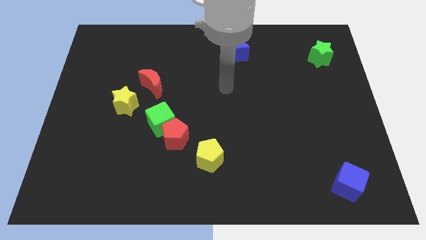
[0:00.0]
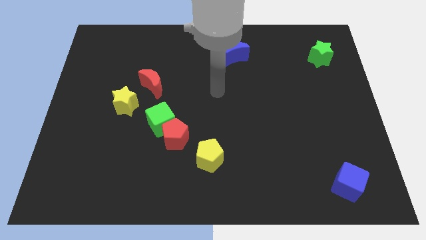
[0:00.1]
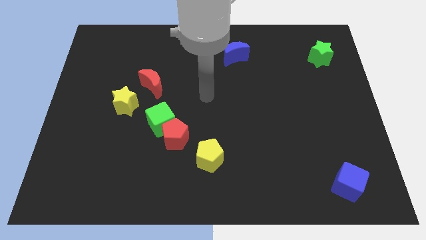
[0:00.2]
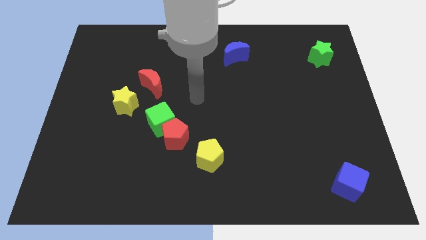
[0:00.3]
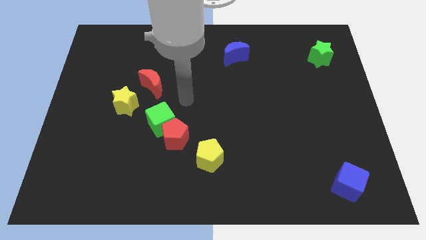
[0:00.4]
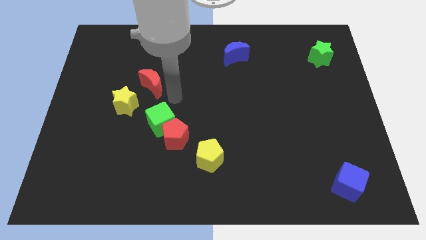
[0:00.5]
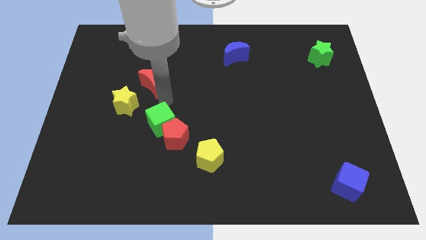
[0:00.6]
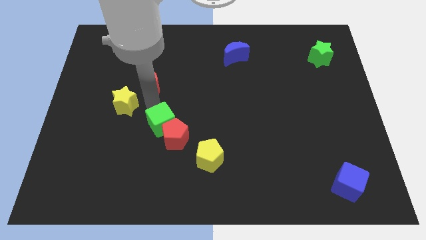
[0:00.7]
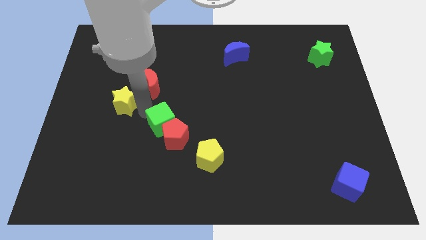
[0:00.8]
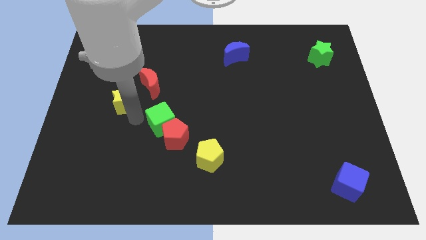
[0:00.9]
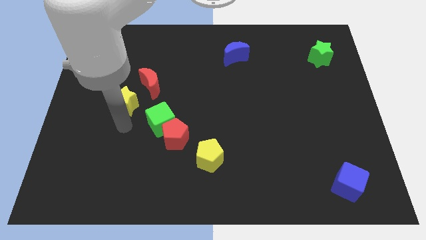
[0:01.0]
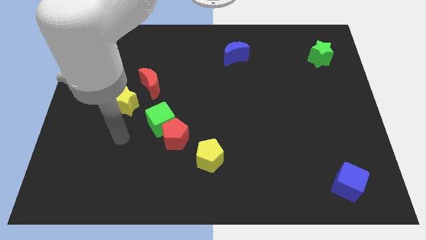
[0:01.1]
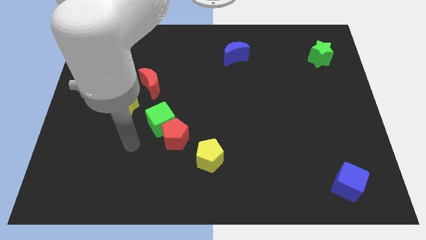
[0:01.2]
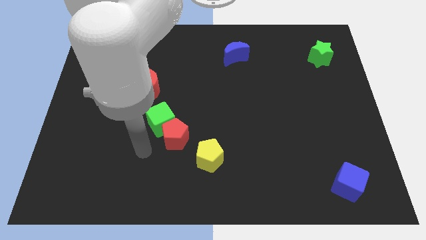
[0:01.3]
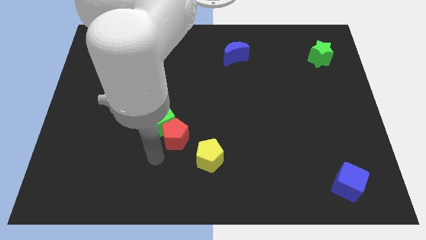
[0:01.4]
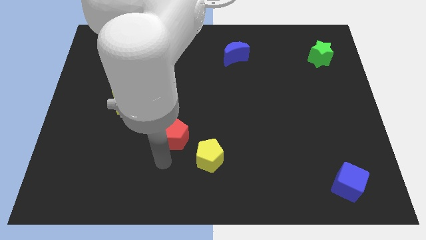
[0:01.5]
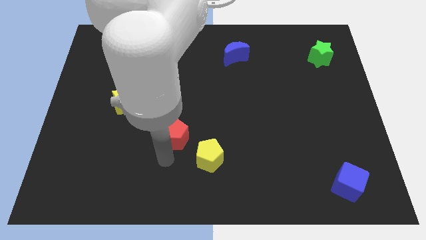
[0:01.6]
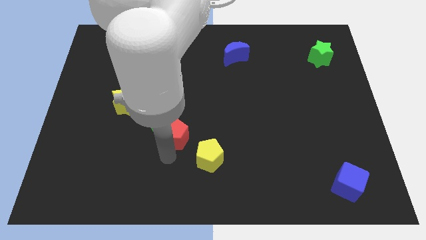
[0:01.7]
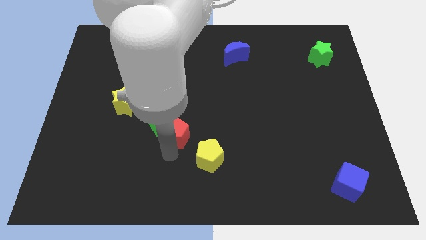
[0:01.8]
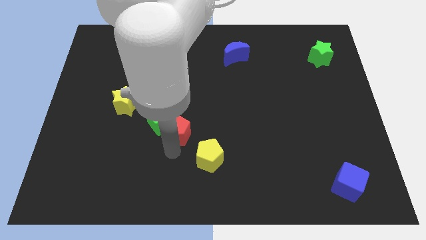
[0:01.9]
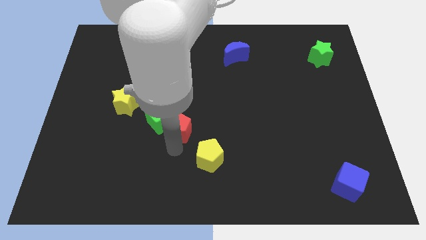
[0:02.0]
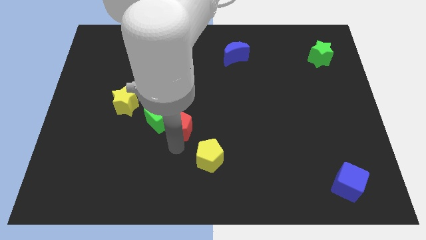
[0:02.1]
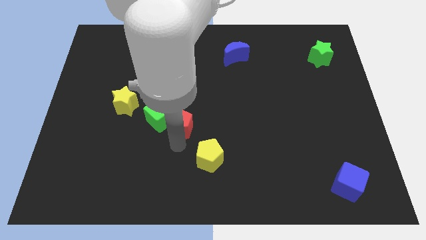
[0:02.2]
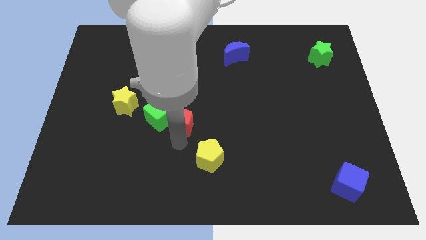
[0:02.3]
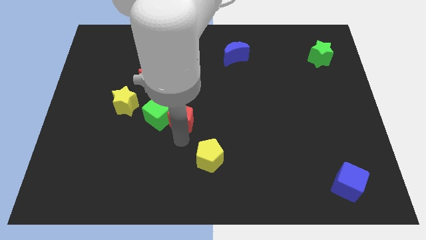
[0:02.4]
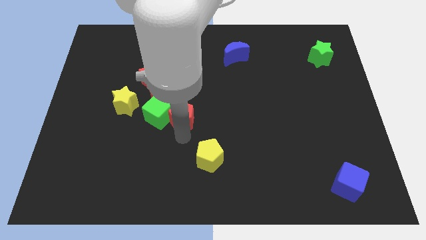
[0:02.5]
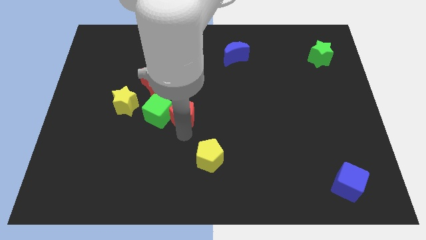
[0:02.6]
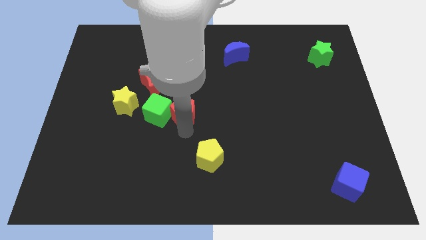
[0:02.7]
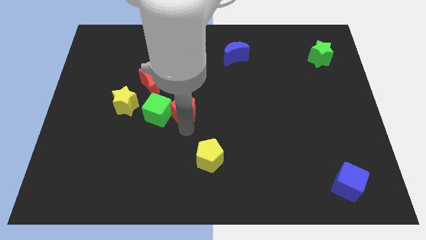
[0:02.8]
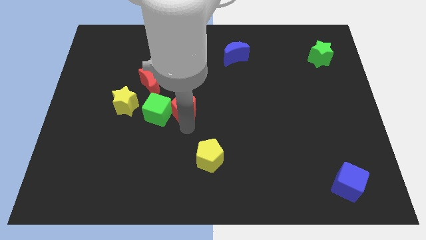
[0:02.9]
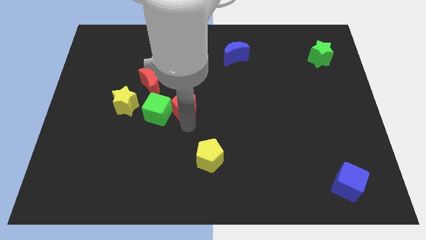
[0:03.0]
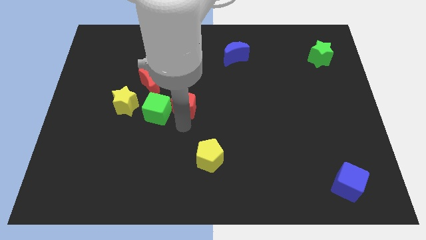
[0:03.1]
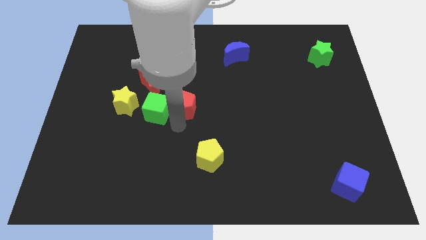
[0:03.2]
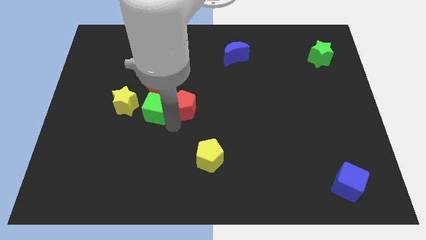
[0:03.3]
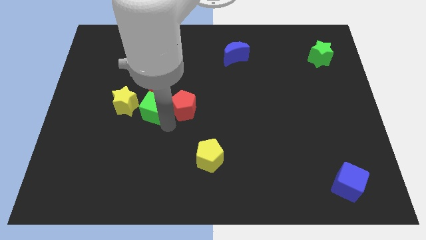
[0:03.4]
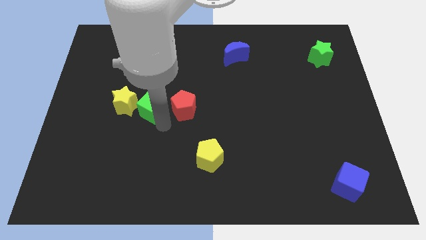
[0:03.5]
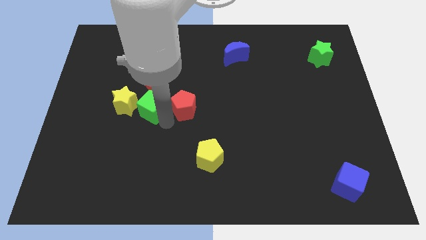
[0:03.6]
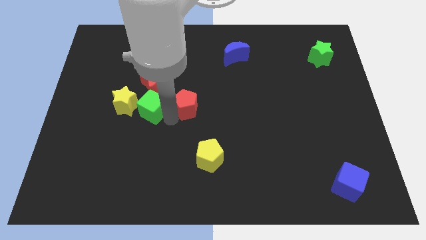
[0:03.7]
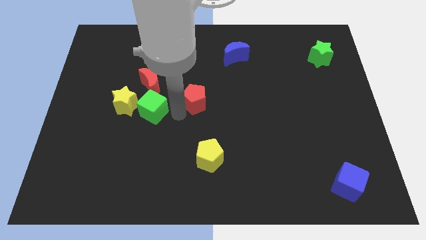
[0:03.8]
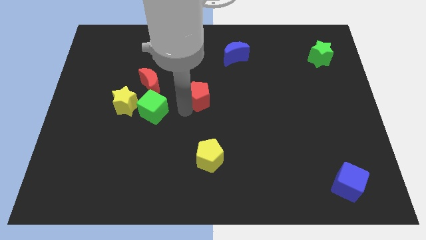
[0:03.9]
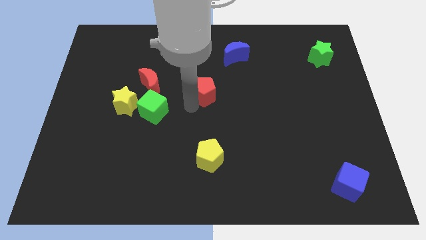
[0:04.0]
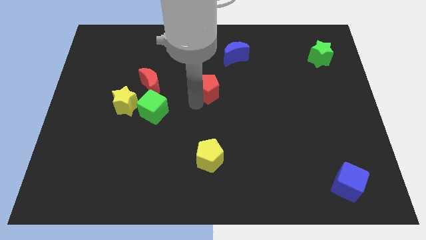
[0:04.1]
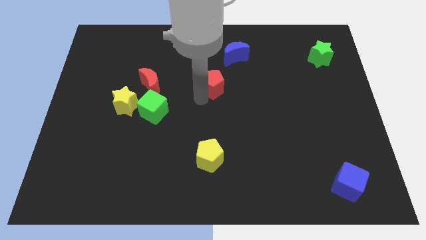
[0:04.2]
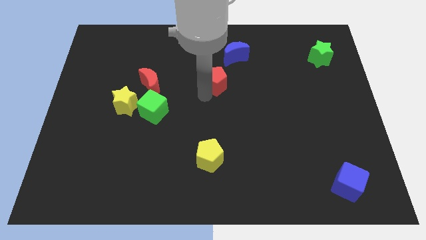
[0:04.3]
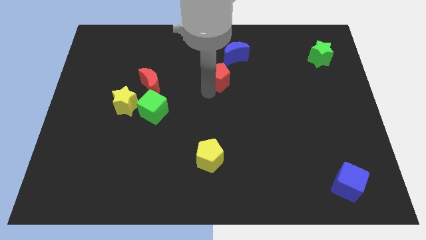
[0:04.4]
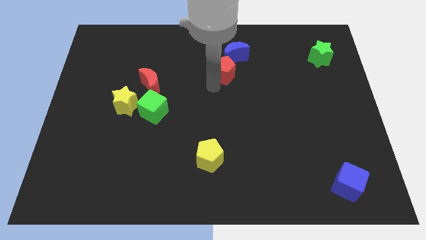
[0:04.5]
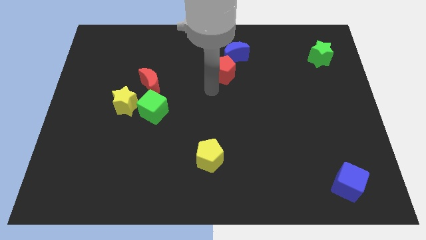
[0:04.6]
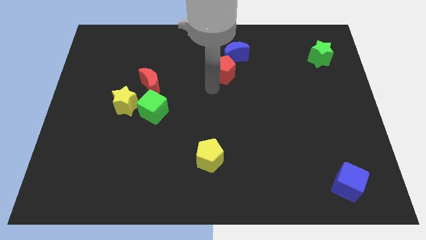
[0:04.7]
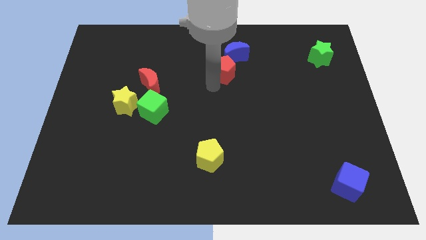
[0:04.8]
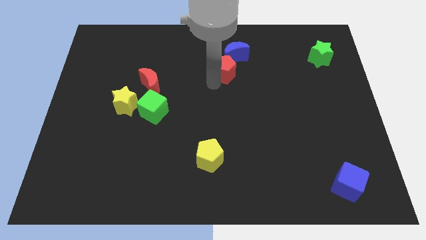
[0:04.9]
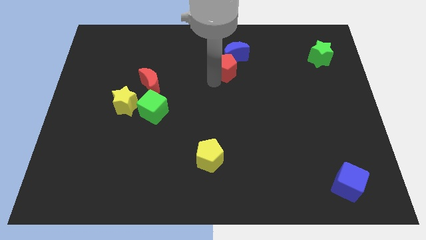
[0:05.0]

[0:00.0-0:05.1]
put the red pentagon close to the blue moon

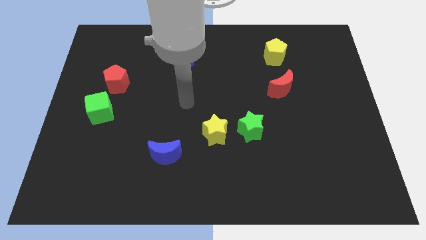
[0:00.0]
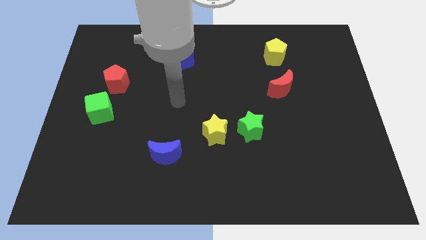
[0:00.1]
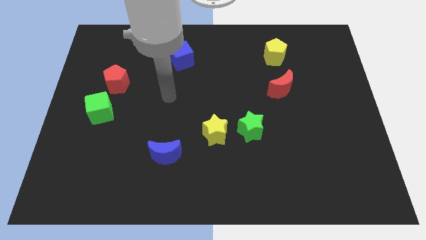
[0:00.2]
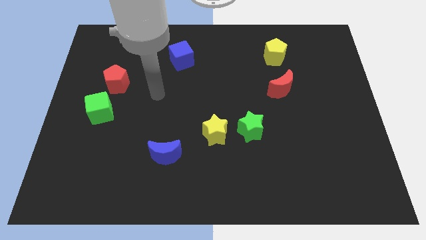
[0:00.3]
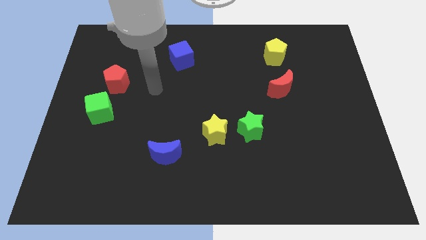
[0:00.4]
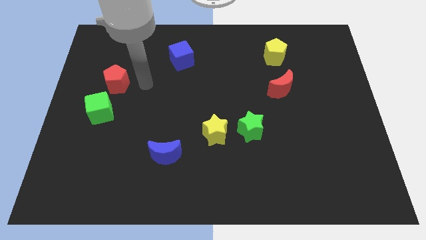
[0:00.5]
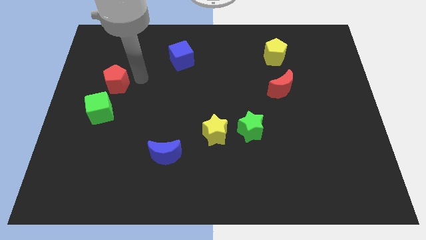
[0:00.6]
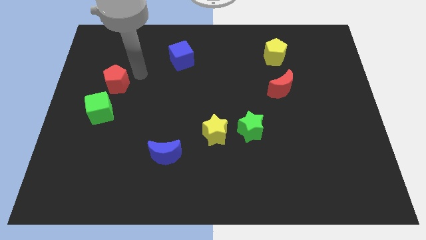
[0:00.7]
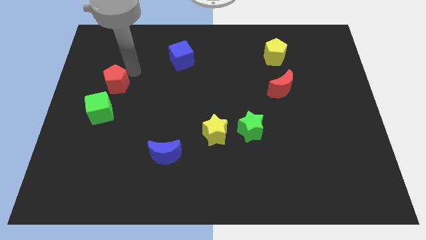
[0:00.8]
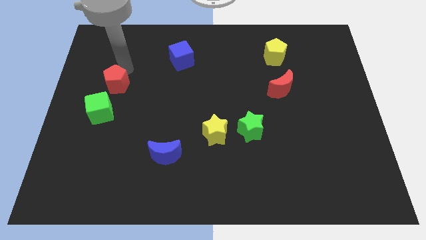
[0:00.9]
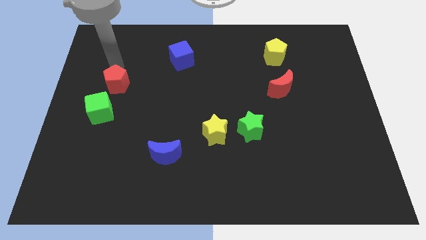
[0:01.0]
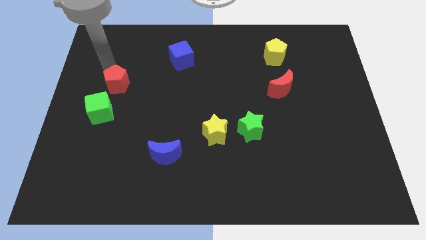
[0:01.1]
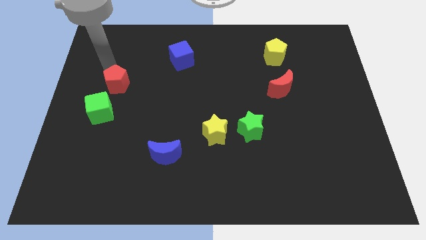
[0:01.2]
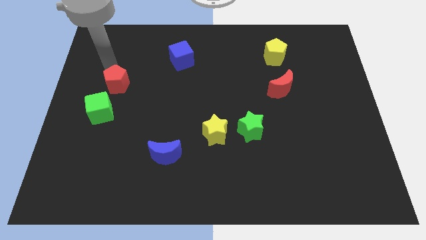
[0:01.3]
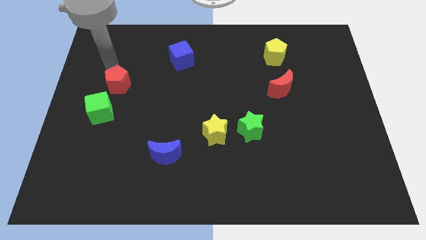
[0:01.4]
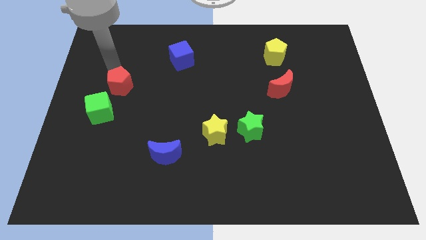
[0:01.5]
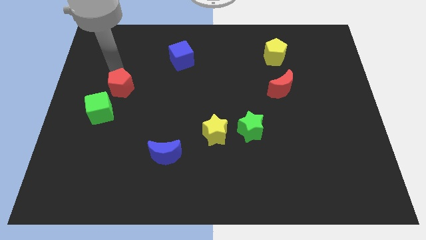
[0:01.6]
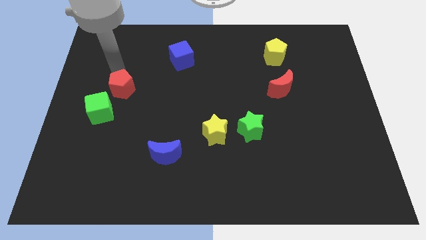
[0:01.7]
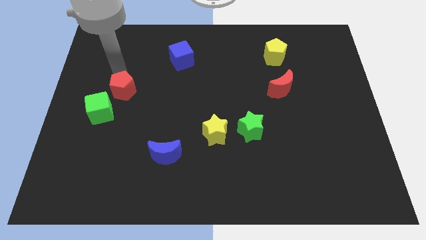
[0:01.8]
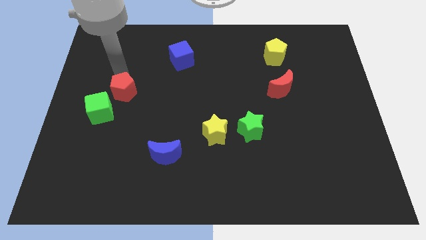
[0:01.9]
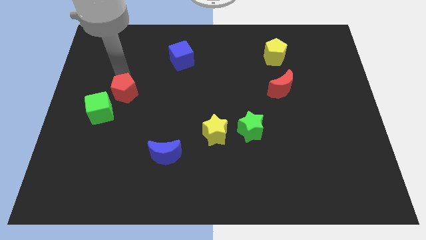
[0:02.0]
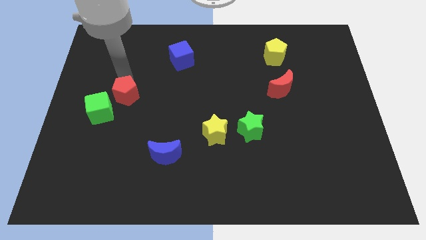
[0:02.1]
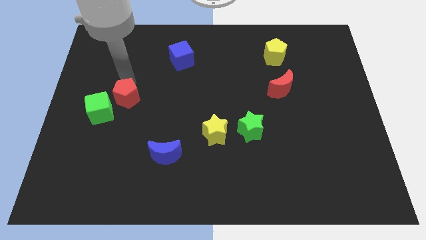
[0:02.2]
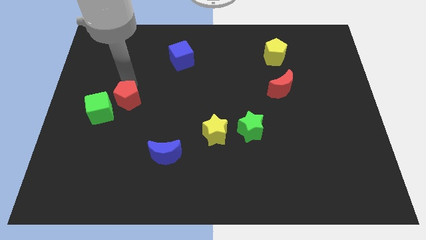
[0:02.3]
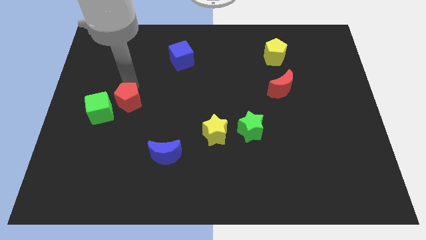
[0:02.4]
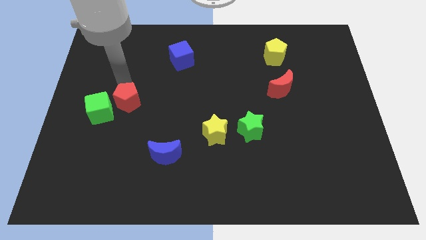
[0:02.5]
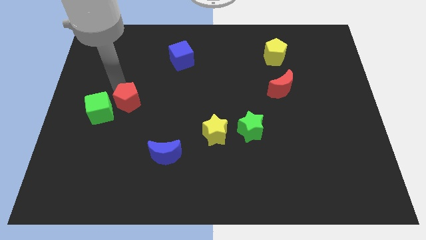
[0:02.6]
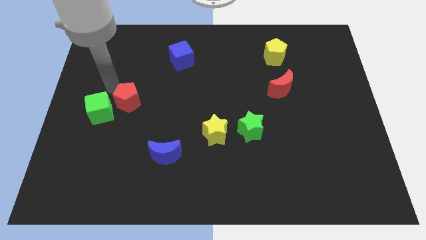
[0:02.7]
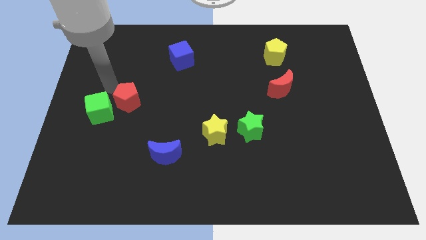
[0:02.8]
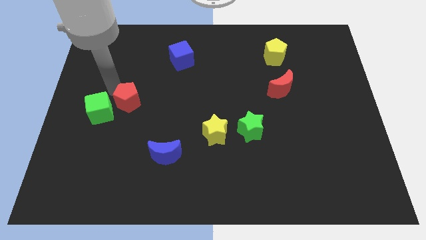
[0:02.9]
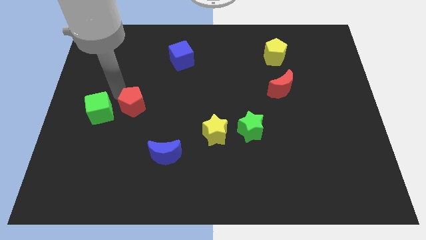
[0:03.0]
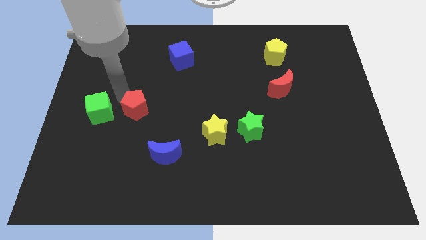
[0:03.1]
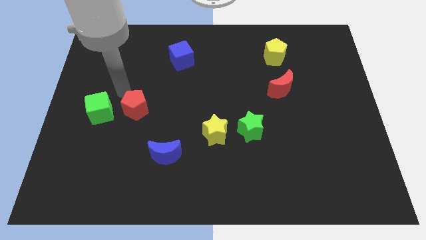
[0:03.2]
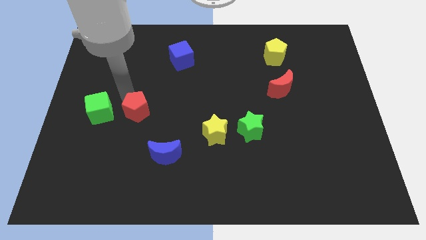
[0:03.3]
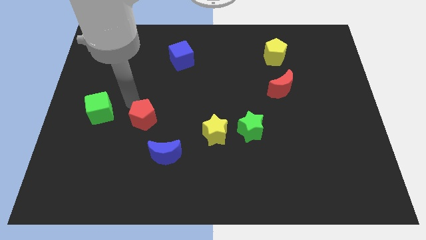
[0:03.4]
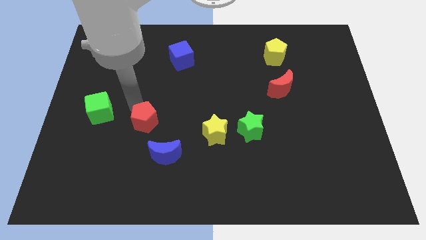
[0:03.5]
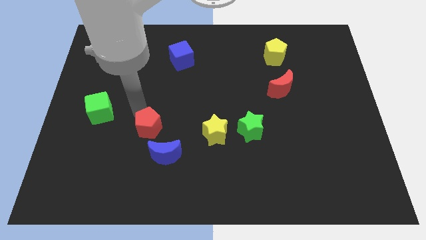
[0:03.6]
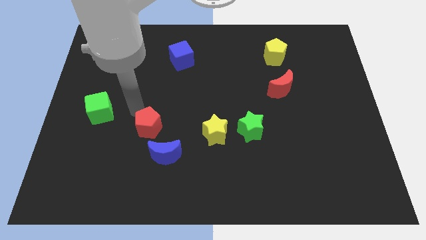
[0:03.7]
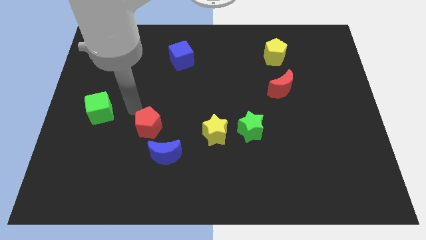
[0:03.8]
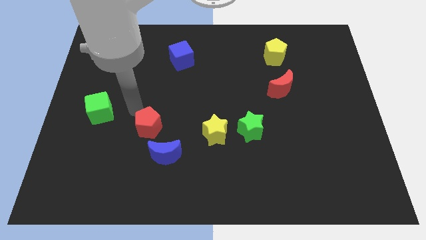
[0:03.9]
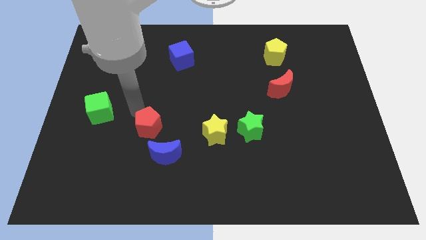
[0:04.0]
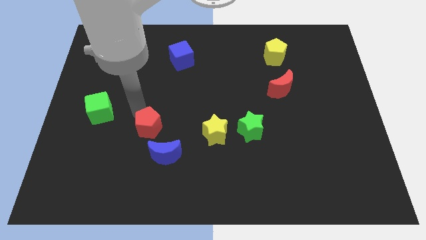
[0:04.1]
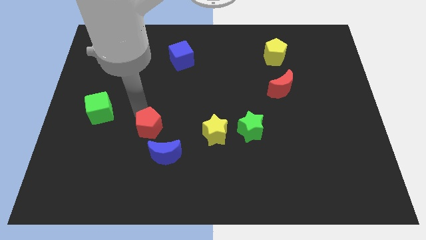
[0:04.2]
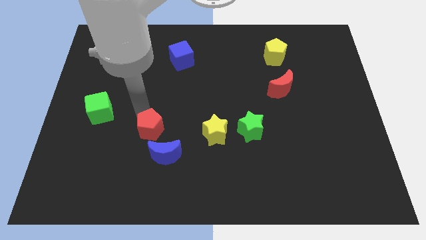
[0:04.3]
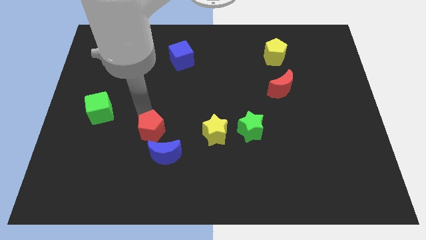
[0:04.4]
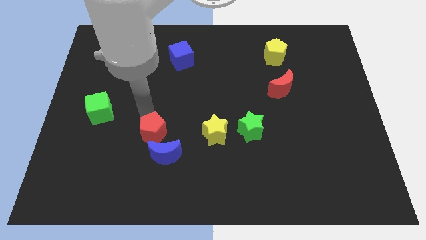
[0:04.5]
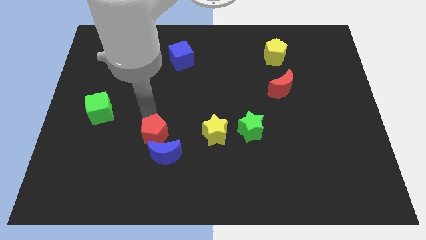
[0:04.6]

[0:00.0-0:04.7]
move the red pentagon towards the blue moon
